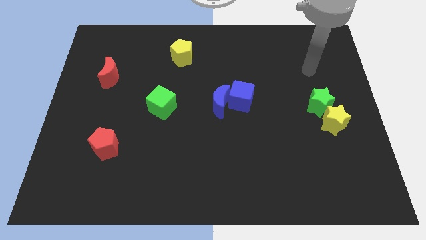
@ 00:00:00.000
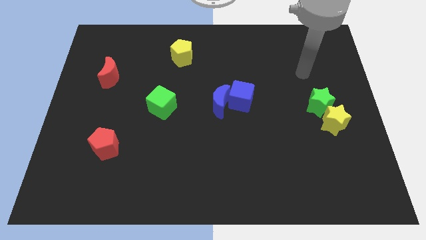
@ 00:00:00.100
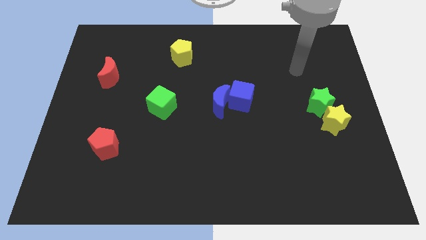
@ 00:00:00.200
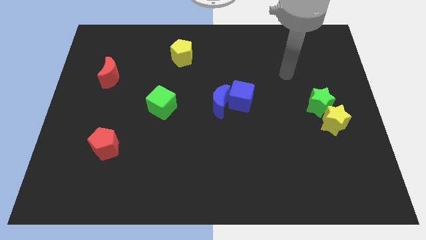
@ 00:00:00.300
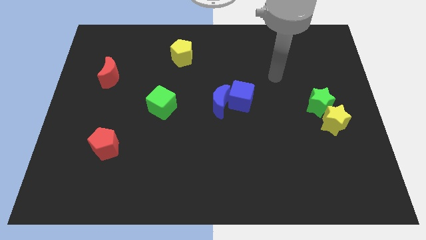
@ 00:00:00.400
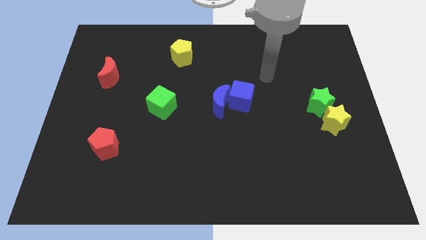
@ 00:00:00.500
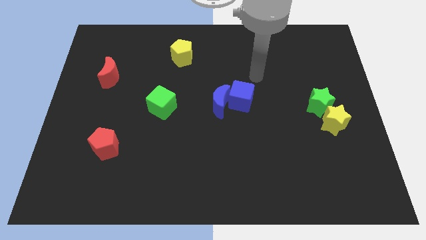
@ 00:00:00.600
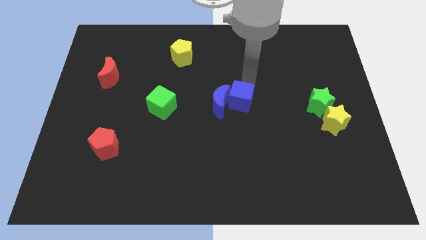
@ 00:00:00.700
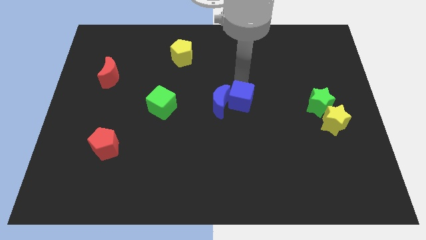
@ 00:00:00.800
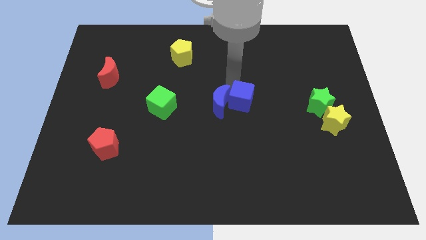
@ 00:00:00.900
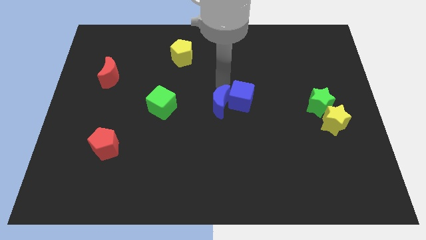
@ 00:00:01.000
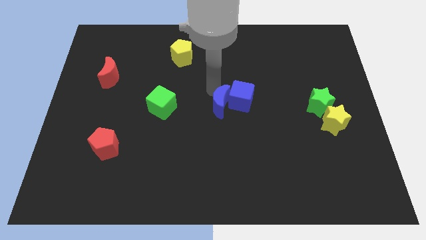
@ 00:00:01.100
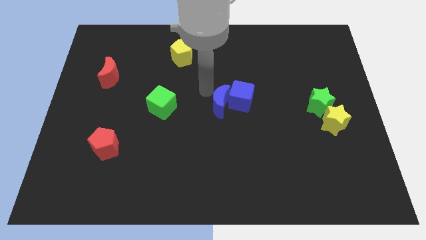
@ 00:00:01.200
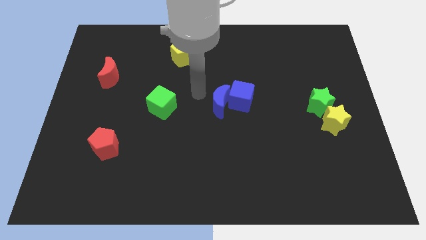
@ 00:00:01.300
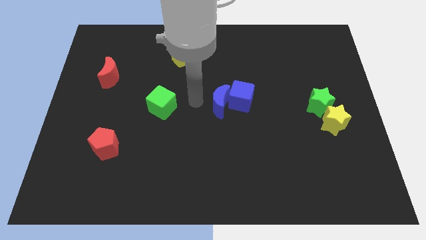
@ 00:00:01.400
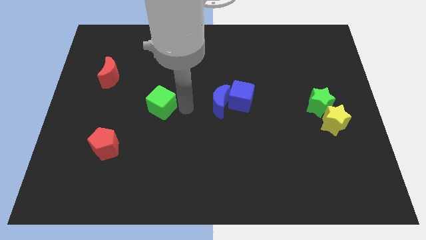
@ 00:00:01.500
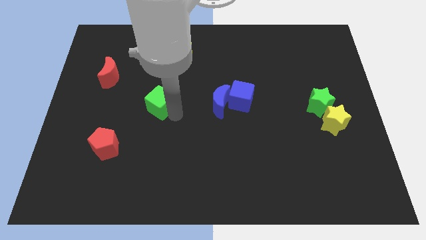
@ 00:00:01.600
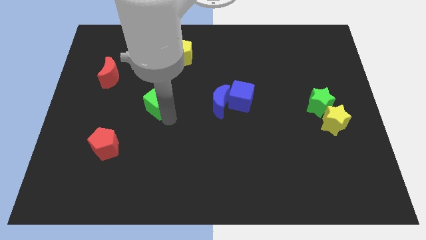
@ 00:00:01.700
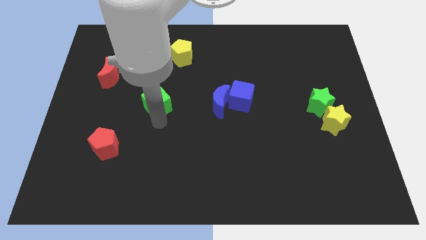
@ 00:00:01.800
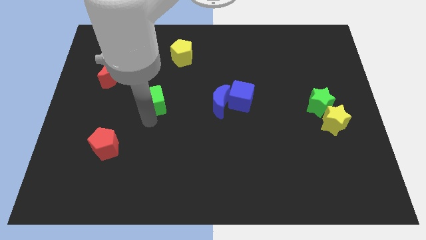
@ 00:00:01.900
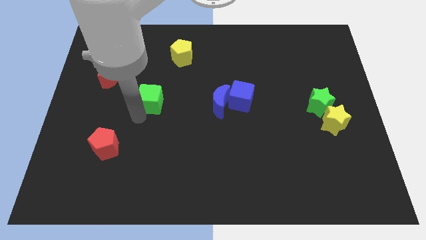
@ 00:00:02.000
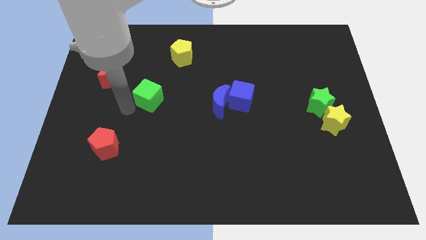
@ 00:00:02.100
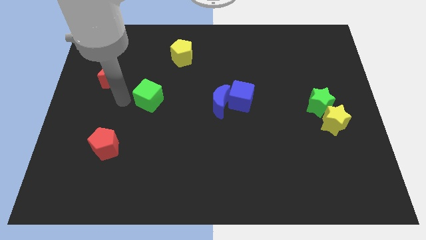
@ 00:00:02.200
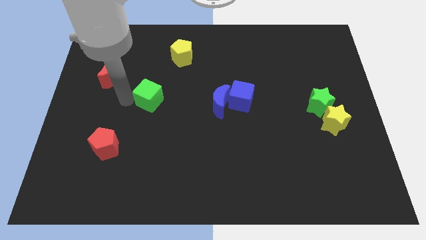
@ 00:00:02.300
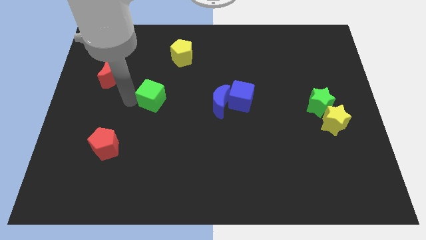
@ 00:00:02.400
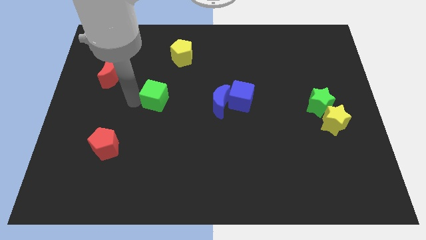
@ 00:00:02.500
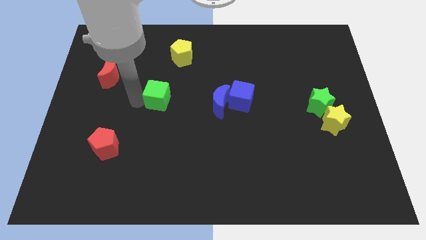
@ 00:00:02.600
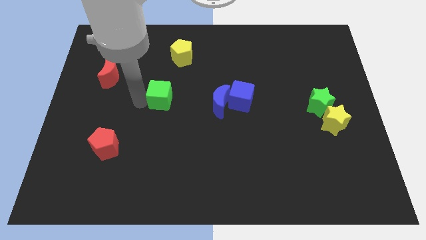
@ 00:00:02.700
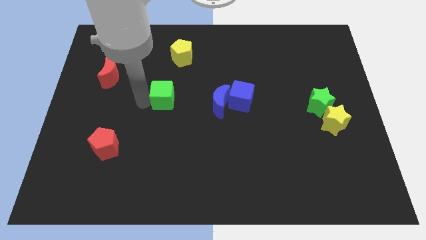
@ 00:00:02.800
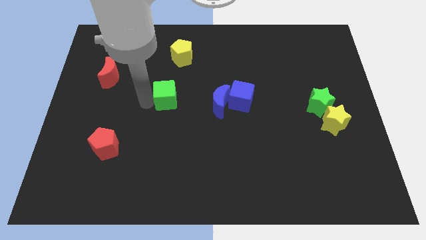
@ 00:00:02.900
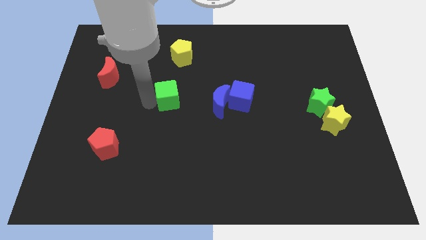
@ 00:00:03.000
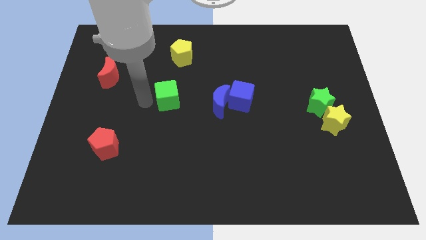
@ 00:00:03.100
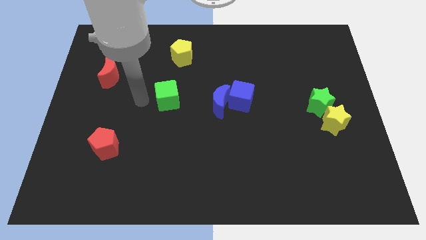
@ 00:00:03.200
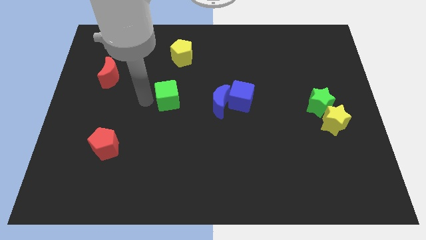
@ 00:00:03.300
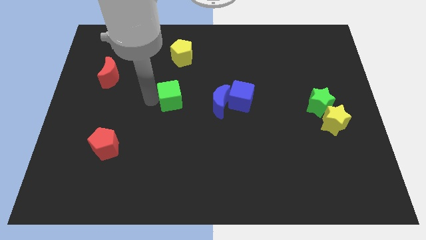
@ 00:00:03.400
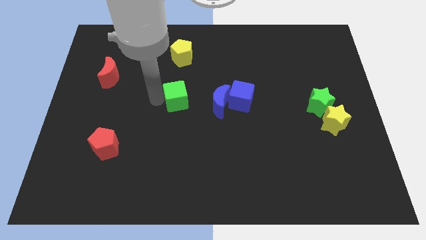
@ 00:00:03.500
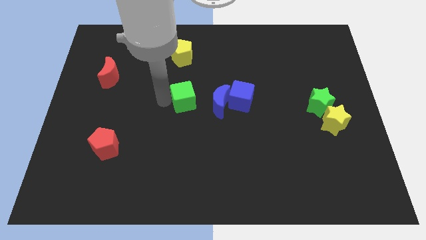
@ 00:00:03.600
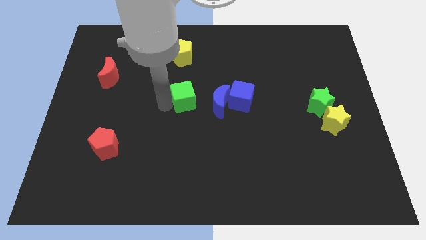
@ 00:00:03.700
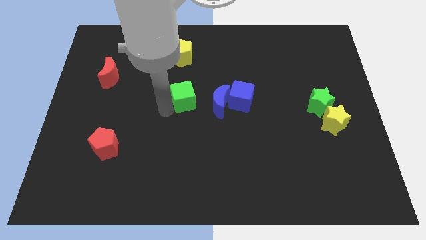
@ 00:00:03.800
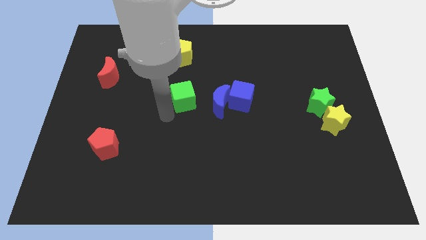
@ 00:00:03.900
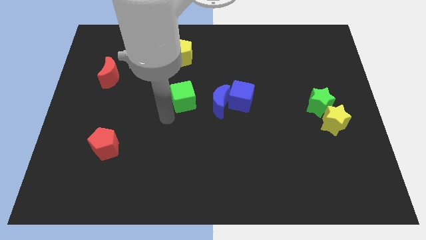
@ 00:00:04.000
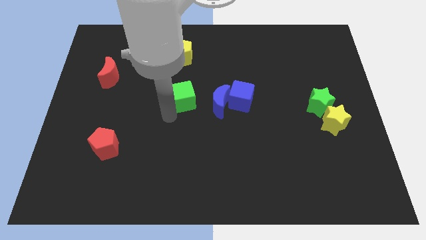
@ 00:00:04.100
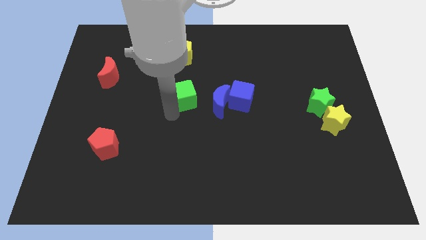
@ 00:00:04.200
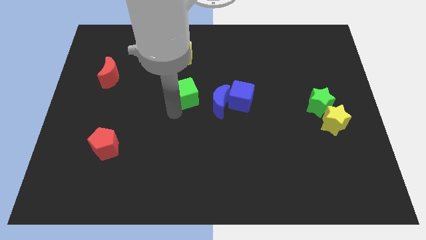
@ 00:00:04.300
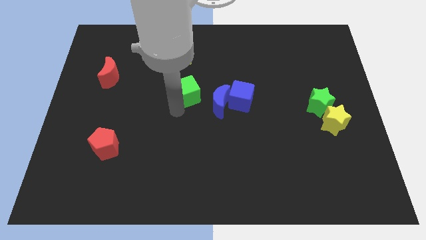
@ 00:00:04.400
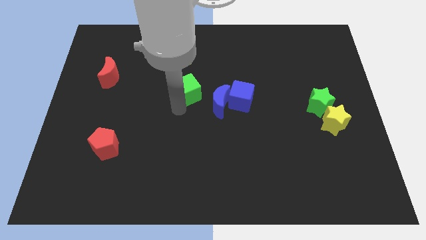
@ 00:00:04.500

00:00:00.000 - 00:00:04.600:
slightly push the green cube diagonally upwards and to the right

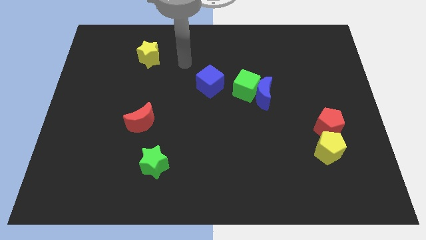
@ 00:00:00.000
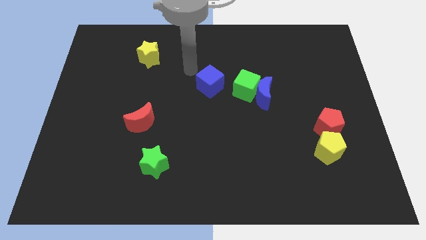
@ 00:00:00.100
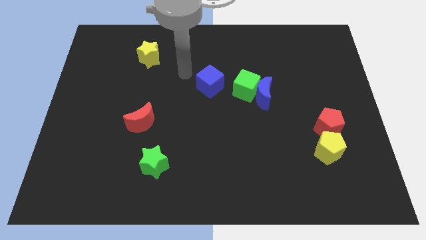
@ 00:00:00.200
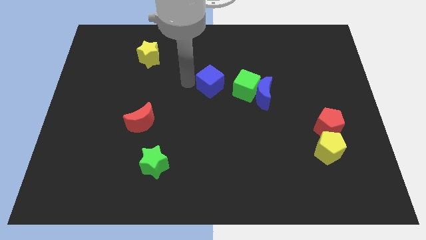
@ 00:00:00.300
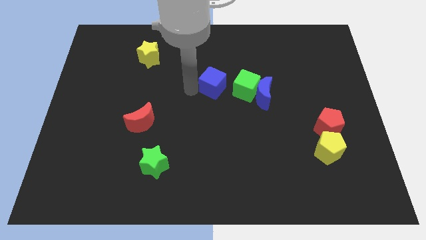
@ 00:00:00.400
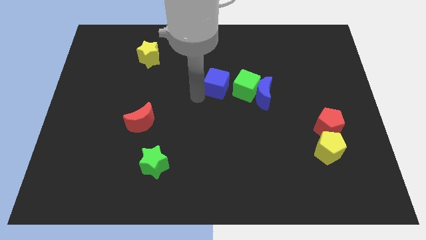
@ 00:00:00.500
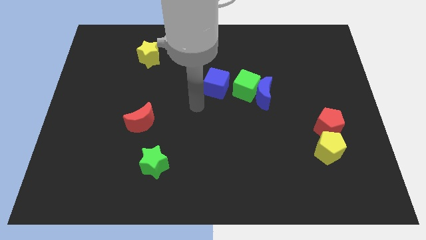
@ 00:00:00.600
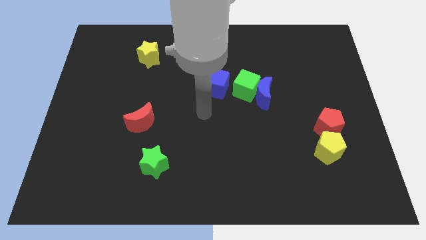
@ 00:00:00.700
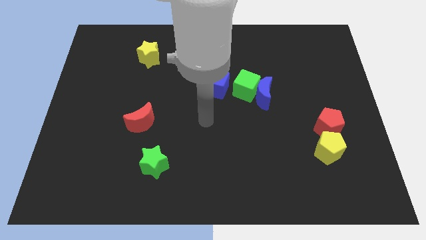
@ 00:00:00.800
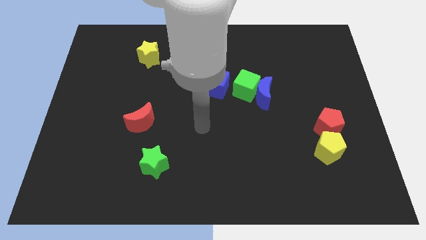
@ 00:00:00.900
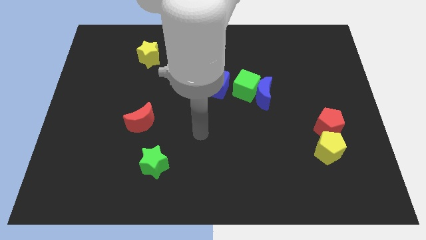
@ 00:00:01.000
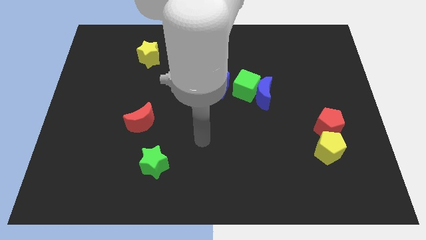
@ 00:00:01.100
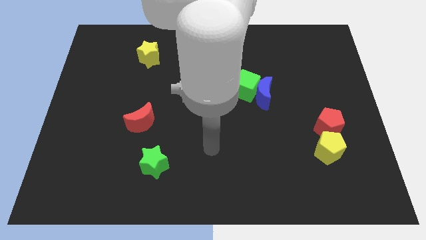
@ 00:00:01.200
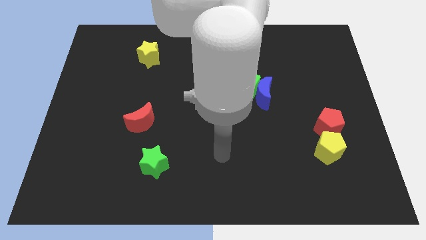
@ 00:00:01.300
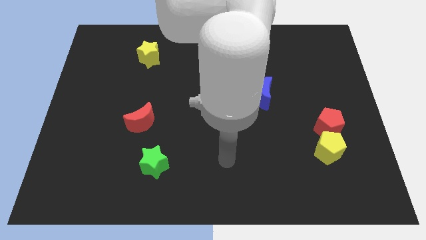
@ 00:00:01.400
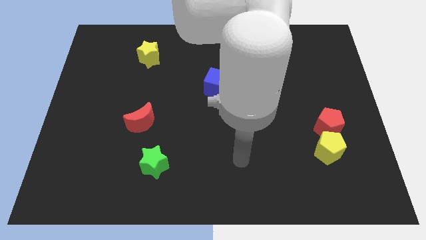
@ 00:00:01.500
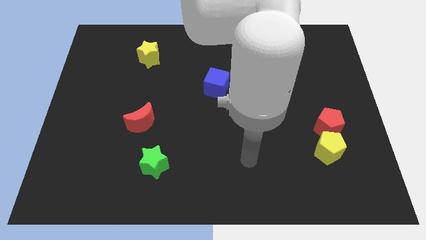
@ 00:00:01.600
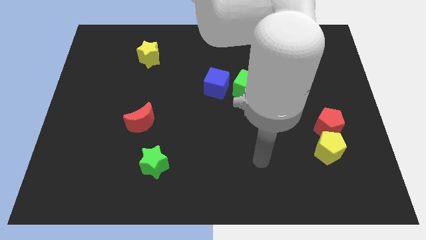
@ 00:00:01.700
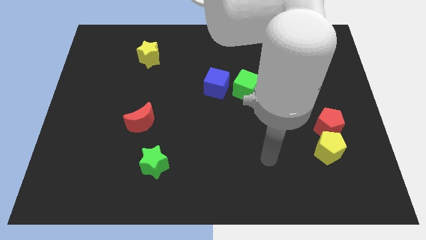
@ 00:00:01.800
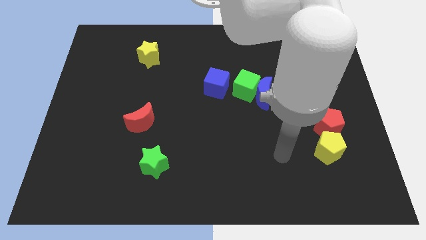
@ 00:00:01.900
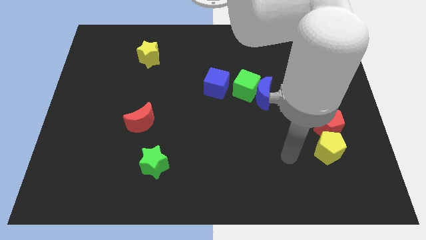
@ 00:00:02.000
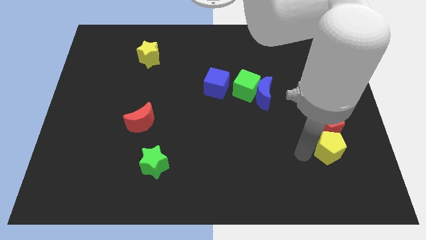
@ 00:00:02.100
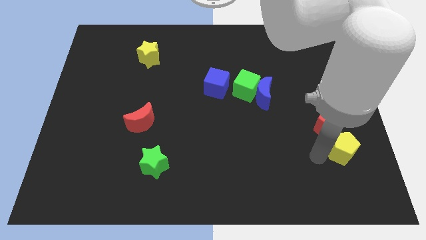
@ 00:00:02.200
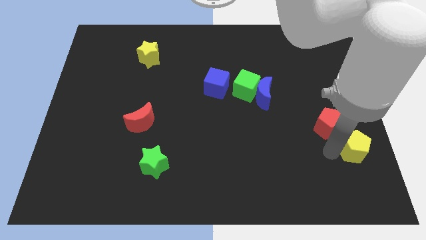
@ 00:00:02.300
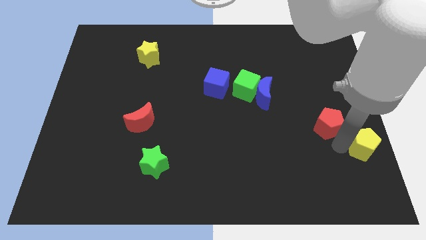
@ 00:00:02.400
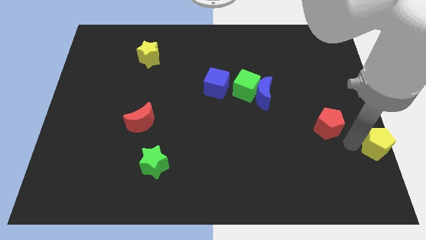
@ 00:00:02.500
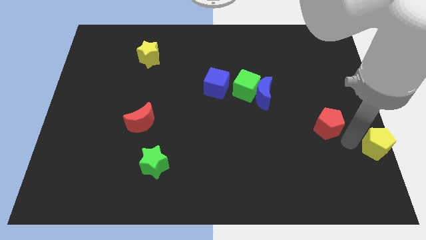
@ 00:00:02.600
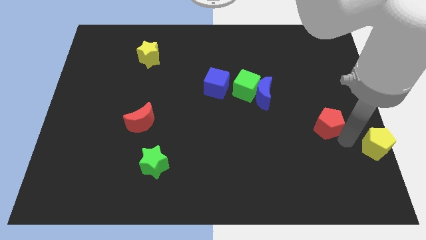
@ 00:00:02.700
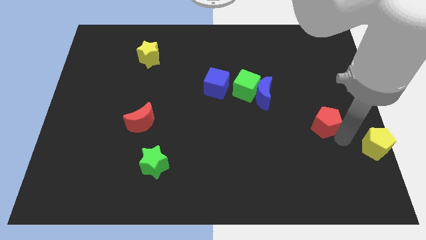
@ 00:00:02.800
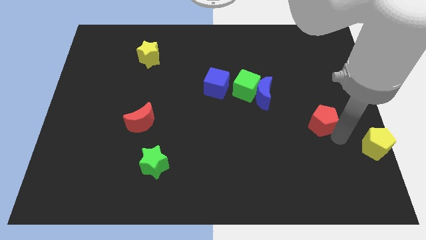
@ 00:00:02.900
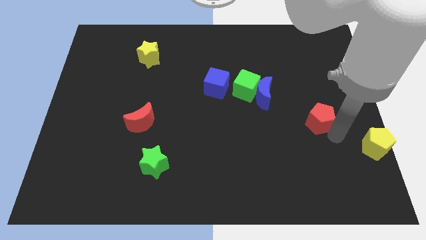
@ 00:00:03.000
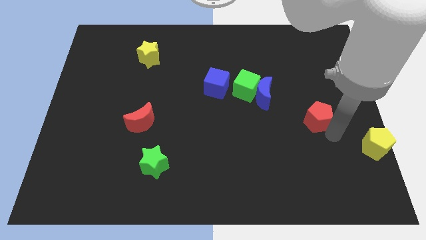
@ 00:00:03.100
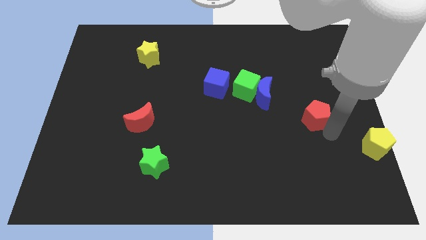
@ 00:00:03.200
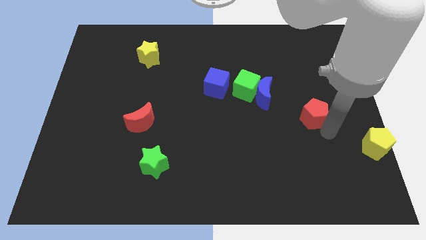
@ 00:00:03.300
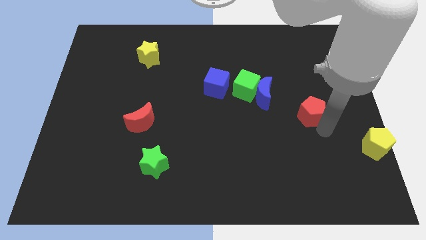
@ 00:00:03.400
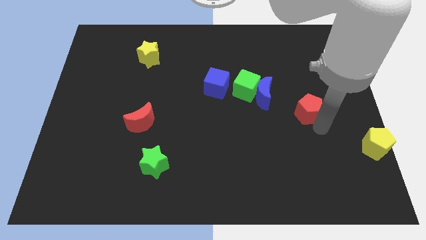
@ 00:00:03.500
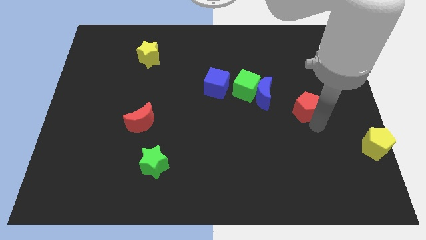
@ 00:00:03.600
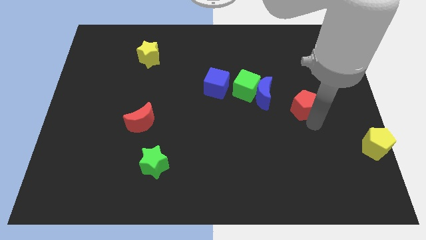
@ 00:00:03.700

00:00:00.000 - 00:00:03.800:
slightly move the red pentagon upwards and to the left
